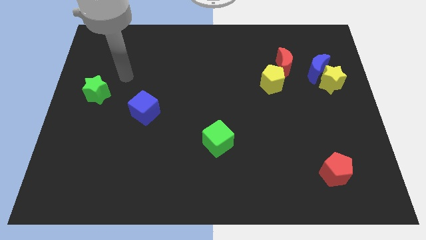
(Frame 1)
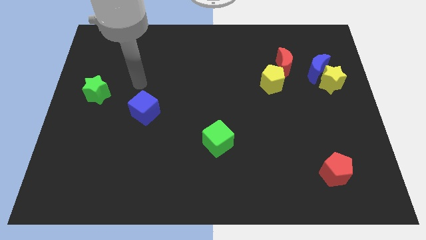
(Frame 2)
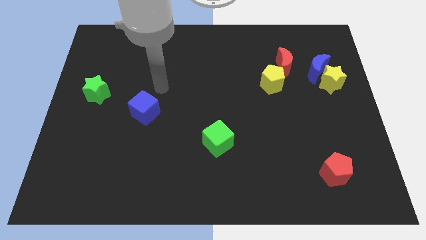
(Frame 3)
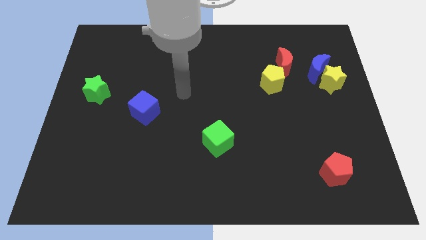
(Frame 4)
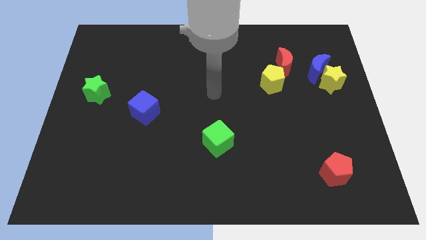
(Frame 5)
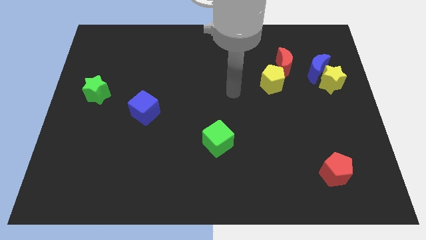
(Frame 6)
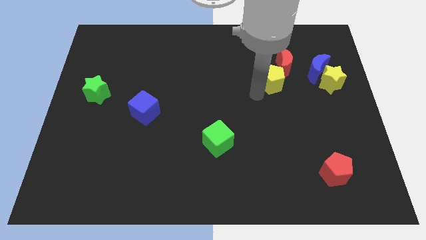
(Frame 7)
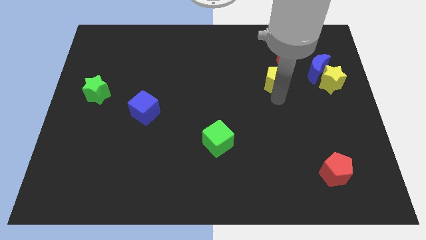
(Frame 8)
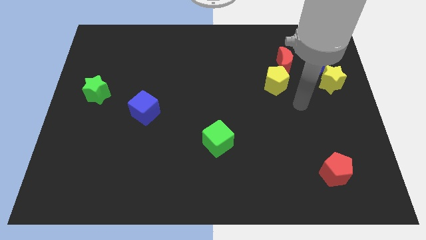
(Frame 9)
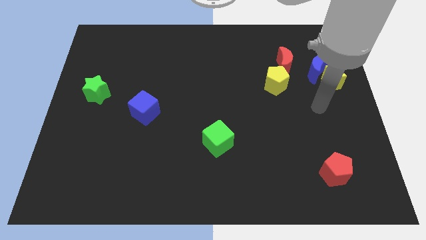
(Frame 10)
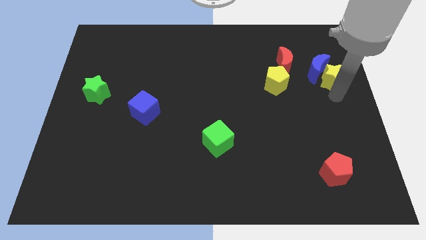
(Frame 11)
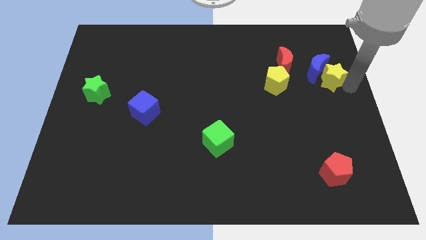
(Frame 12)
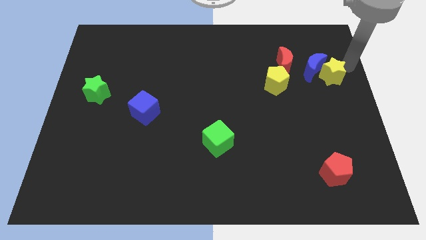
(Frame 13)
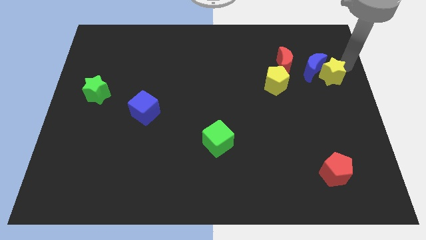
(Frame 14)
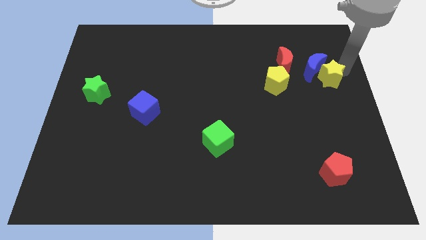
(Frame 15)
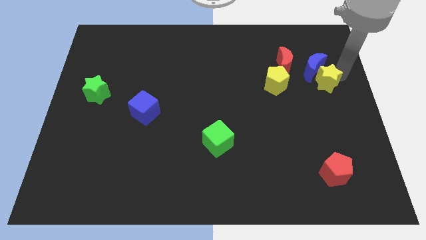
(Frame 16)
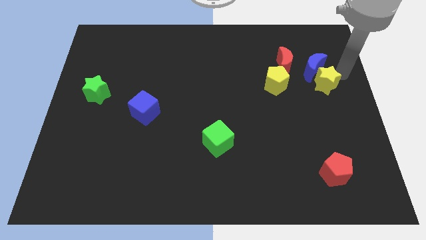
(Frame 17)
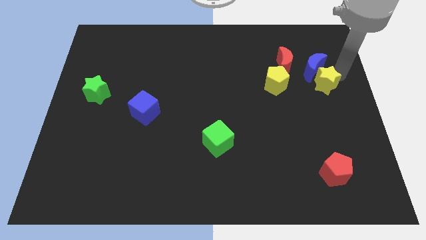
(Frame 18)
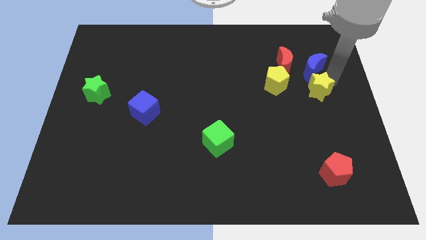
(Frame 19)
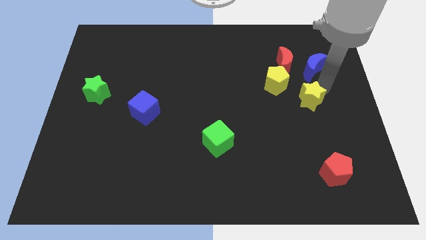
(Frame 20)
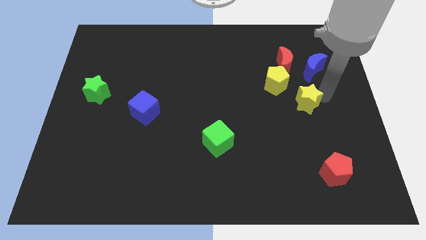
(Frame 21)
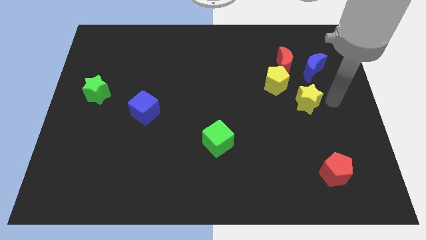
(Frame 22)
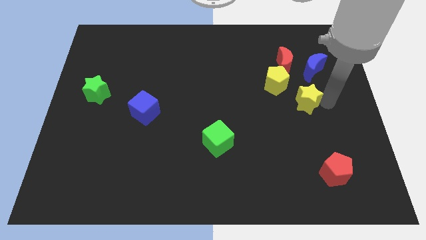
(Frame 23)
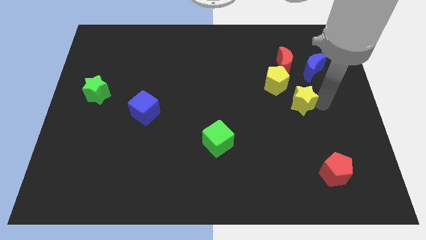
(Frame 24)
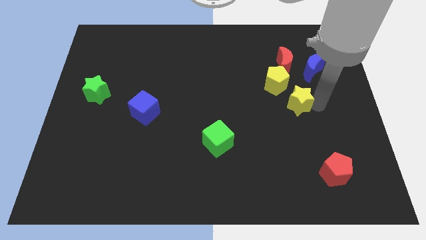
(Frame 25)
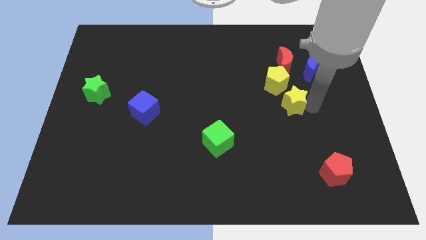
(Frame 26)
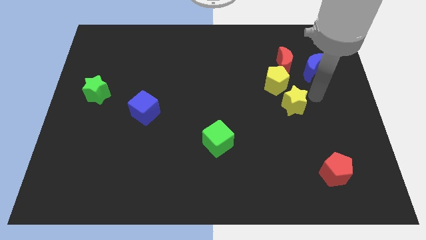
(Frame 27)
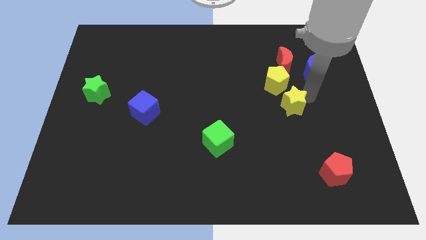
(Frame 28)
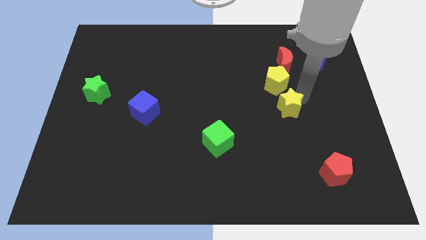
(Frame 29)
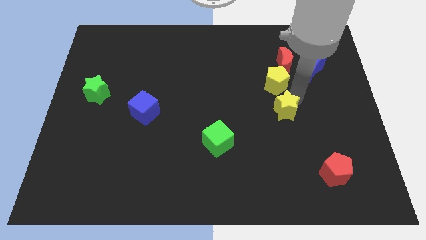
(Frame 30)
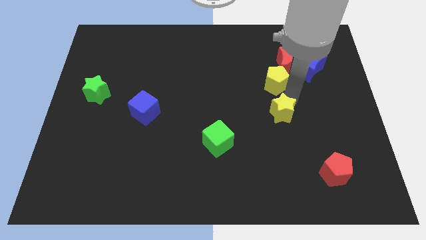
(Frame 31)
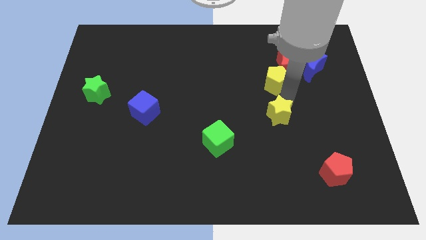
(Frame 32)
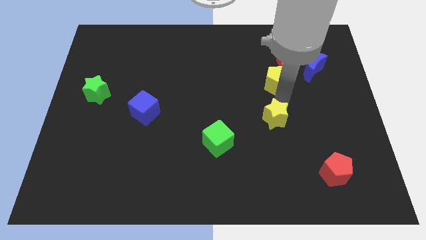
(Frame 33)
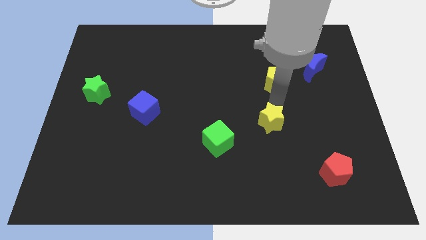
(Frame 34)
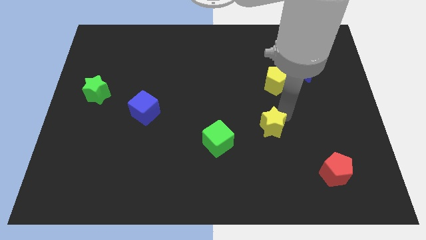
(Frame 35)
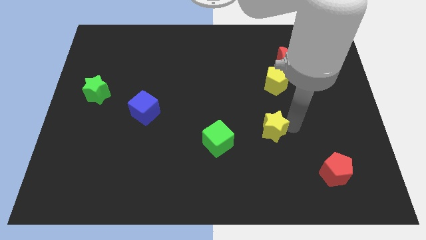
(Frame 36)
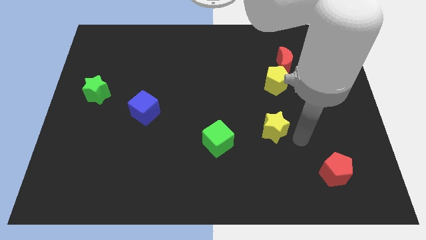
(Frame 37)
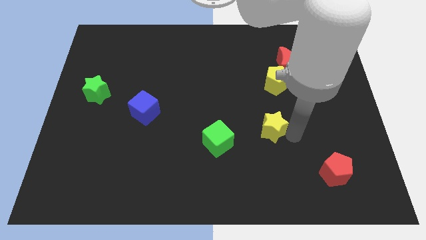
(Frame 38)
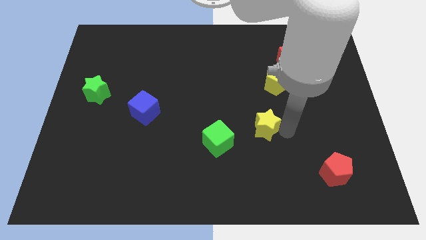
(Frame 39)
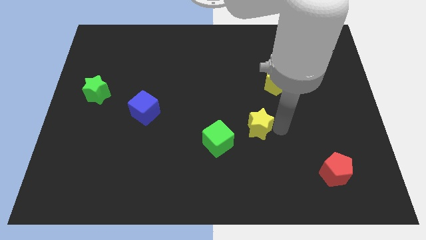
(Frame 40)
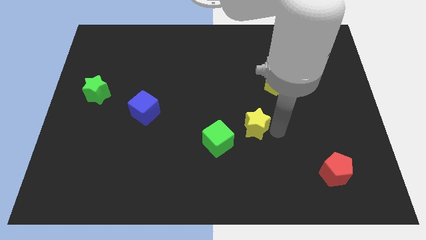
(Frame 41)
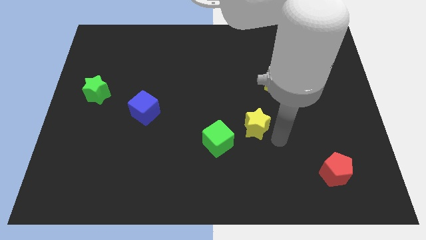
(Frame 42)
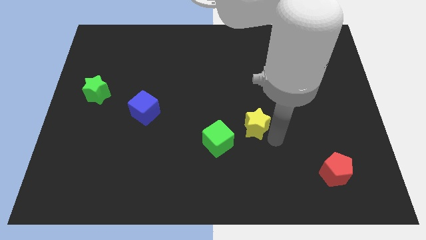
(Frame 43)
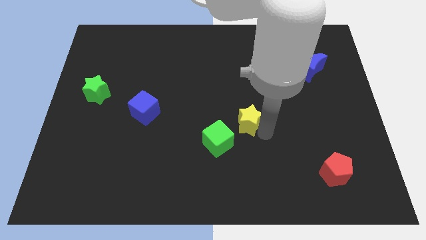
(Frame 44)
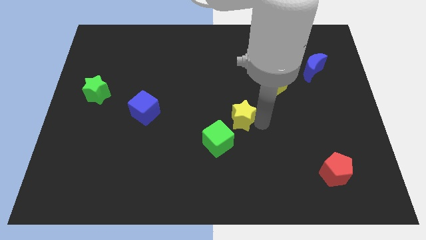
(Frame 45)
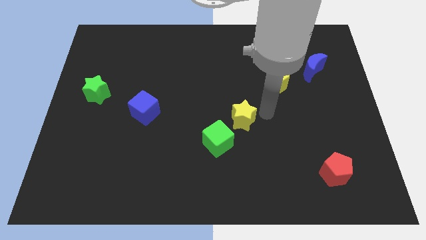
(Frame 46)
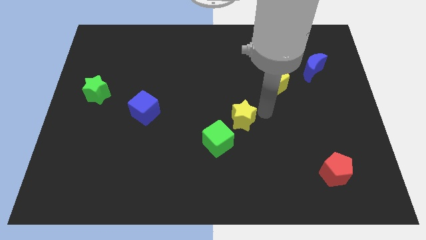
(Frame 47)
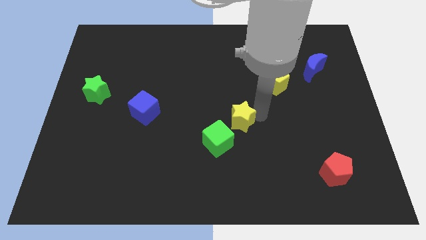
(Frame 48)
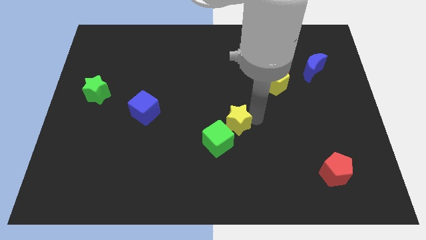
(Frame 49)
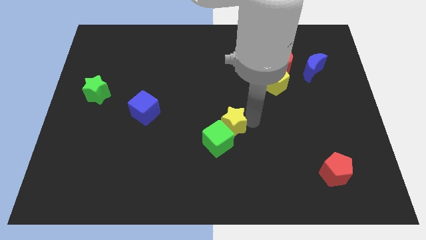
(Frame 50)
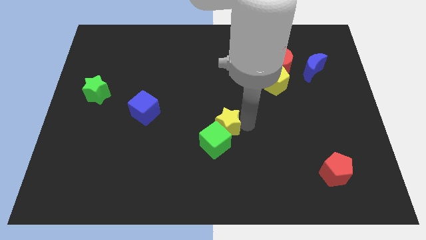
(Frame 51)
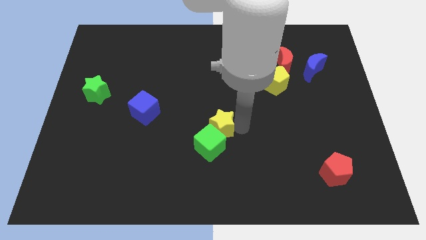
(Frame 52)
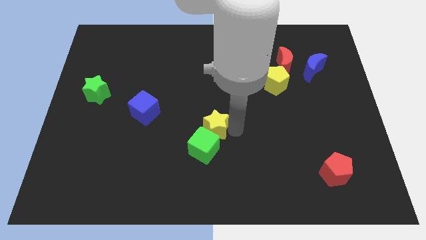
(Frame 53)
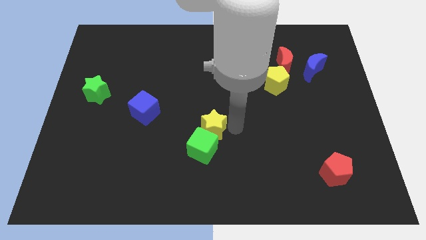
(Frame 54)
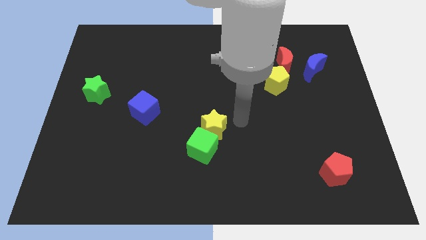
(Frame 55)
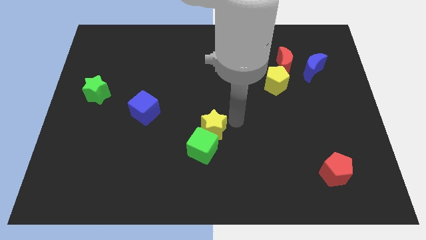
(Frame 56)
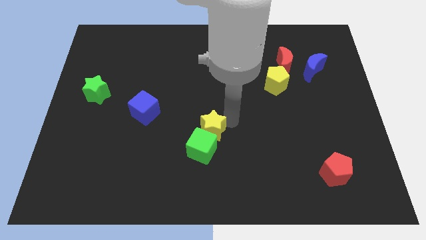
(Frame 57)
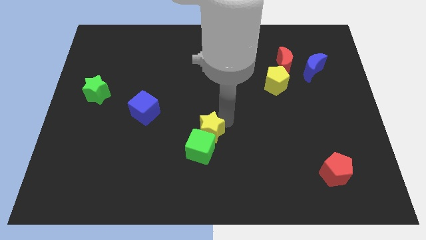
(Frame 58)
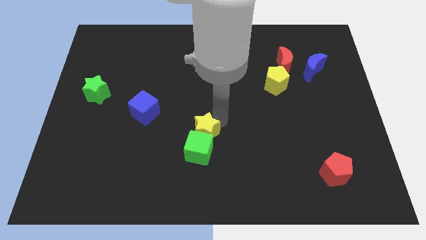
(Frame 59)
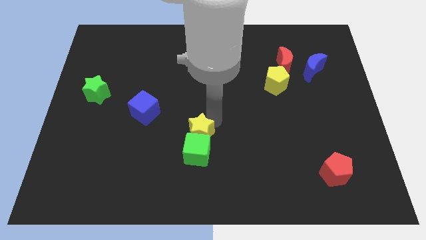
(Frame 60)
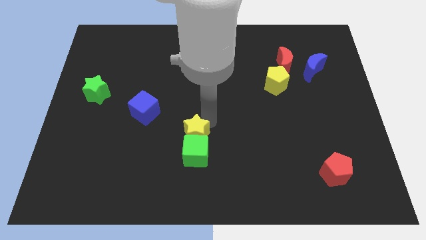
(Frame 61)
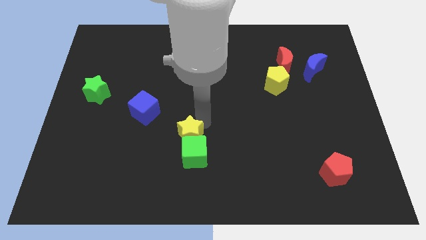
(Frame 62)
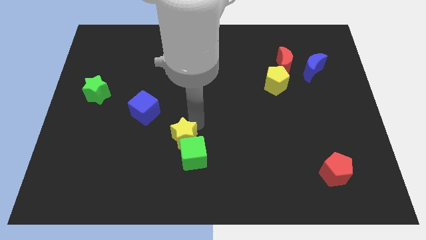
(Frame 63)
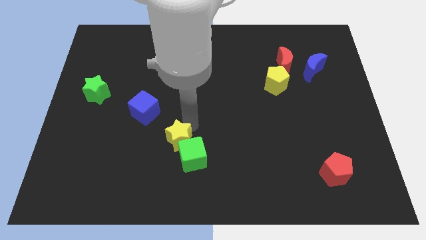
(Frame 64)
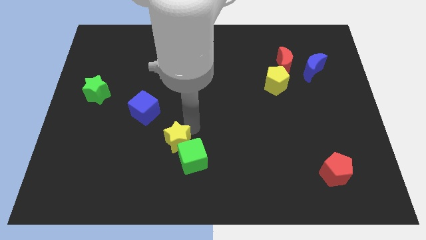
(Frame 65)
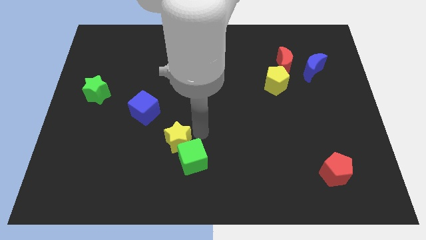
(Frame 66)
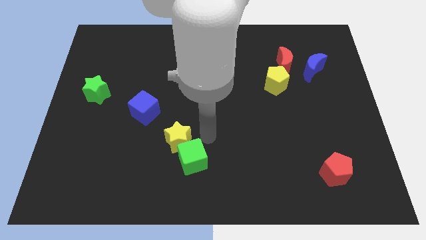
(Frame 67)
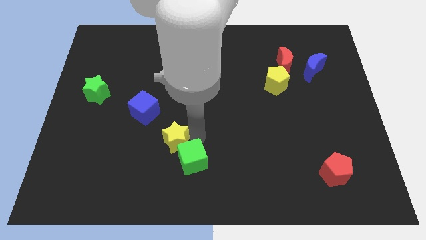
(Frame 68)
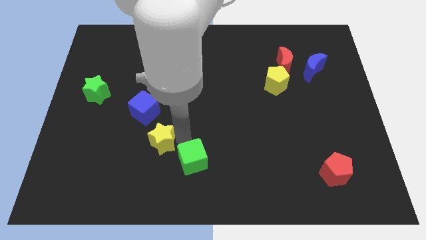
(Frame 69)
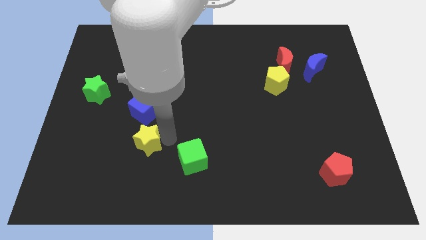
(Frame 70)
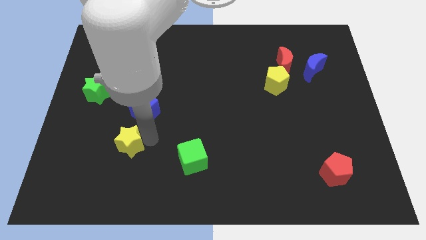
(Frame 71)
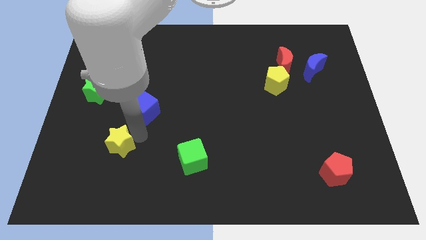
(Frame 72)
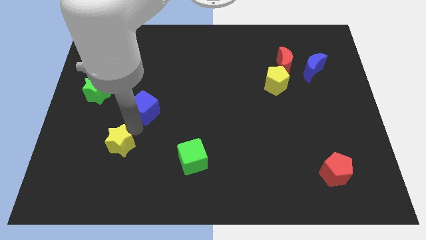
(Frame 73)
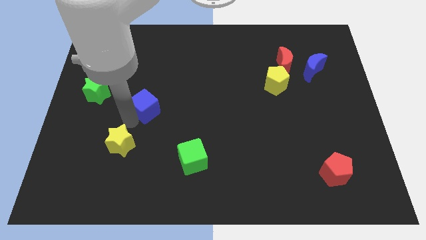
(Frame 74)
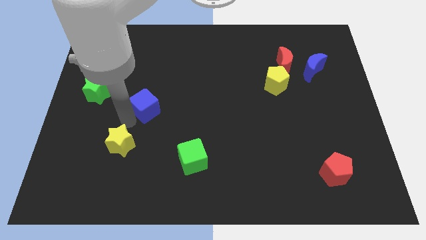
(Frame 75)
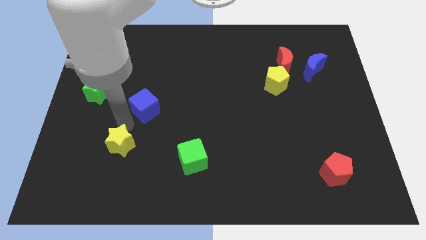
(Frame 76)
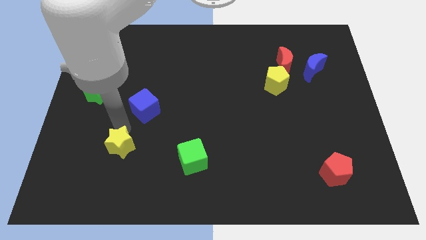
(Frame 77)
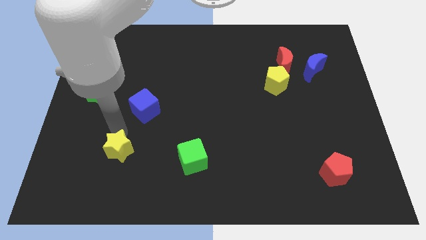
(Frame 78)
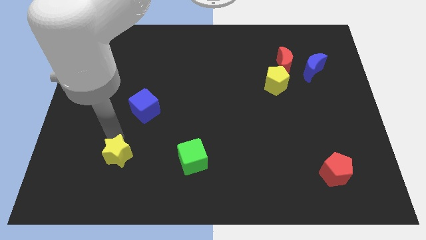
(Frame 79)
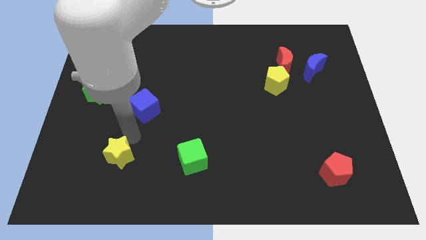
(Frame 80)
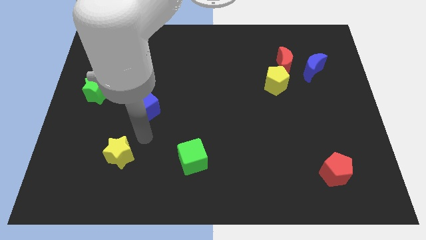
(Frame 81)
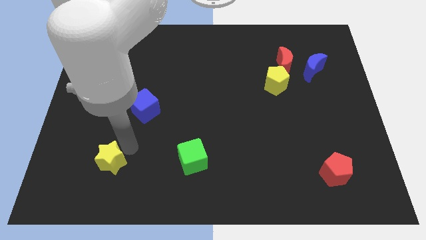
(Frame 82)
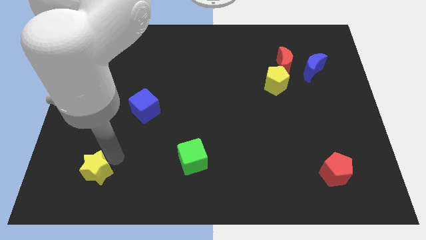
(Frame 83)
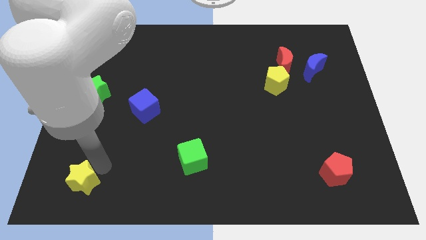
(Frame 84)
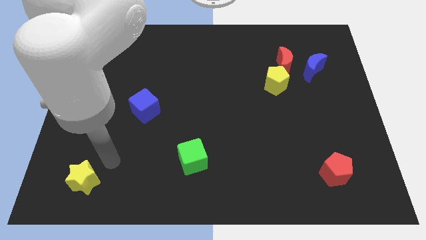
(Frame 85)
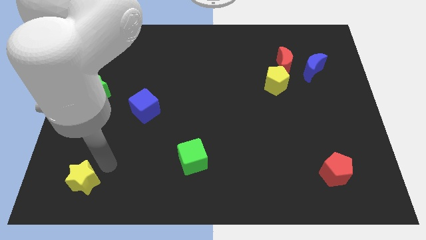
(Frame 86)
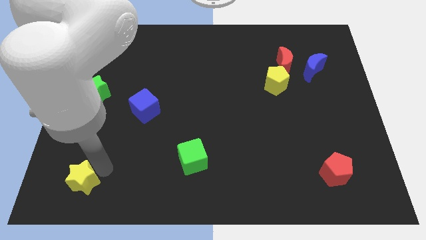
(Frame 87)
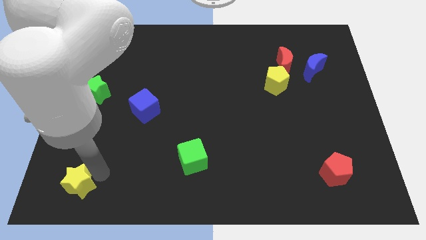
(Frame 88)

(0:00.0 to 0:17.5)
put the yellow star to the bottom left
